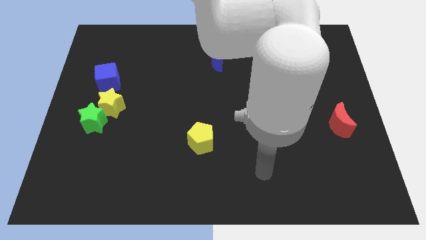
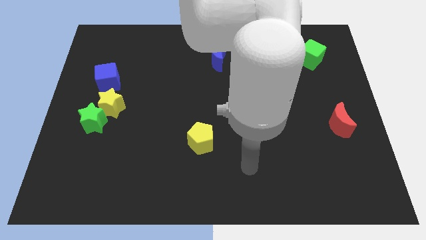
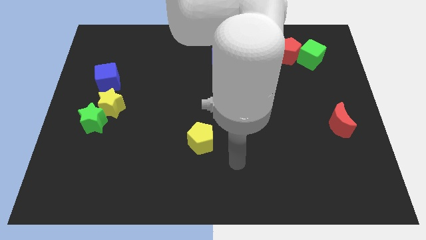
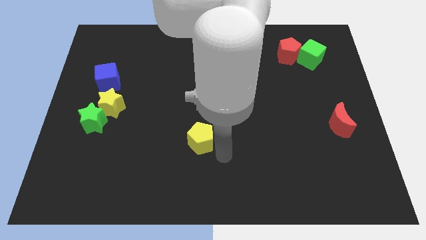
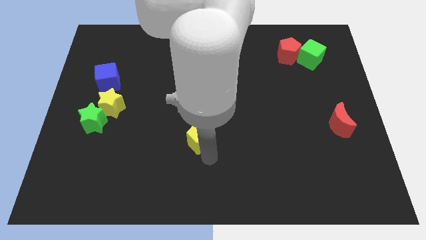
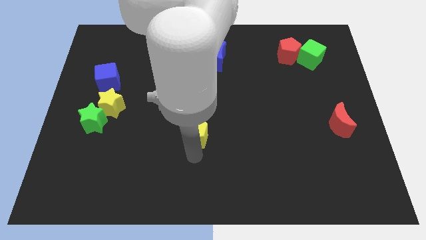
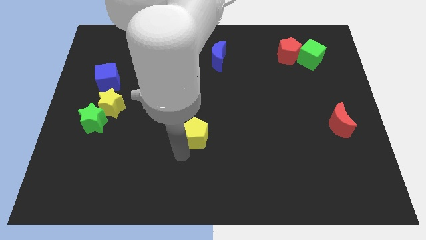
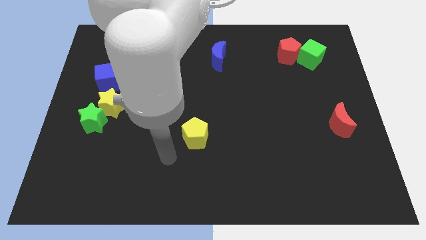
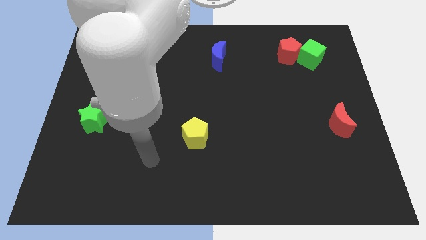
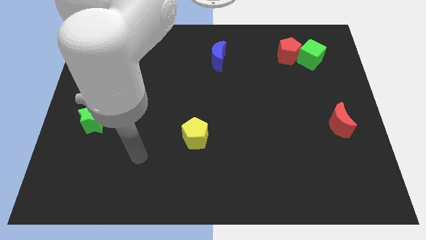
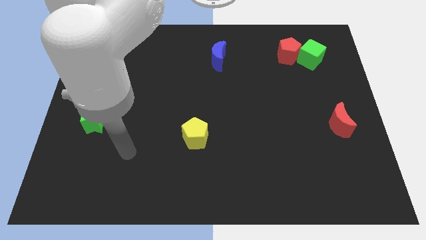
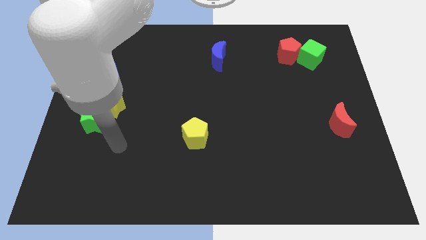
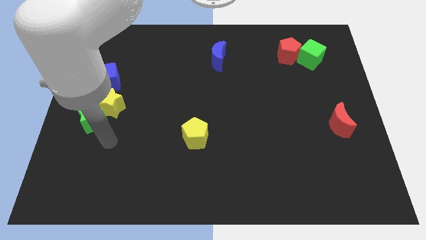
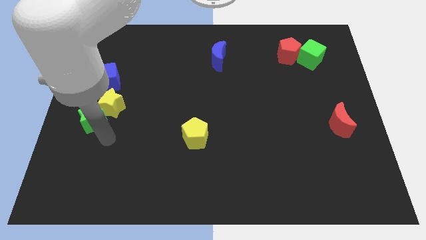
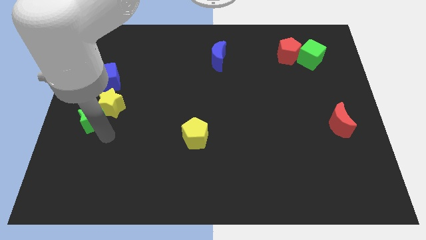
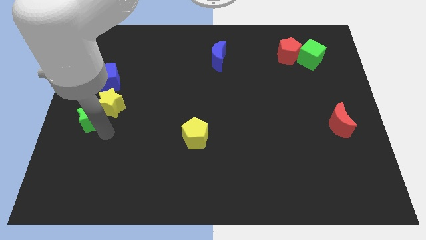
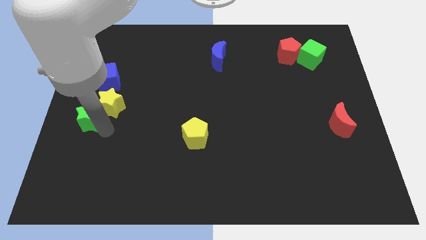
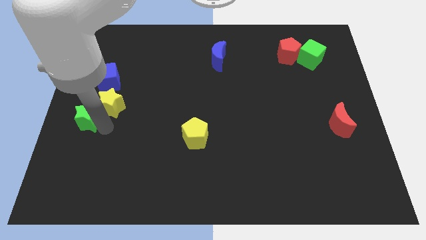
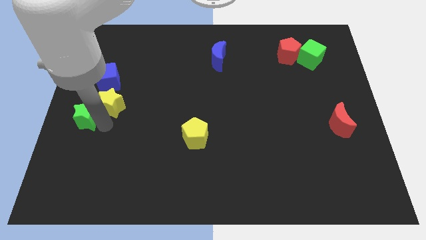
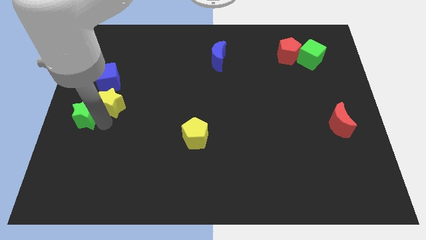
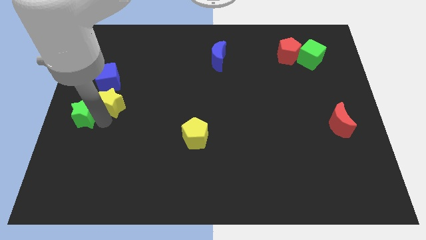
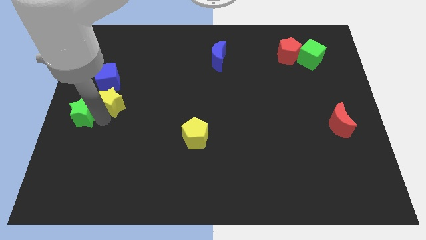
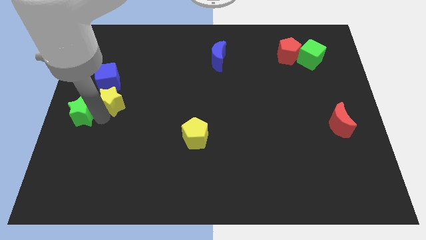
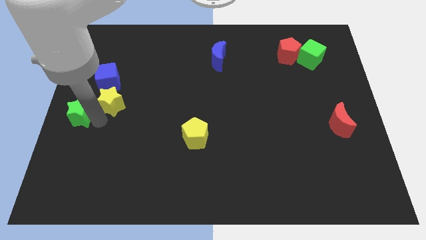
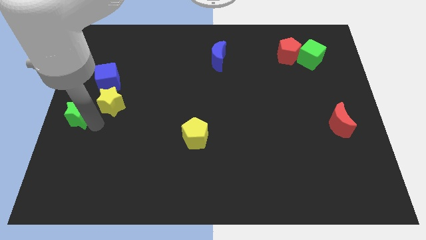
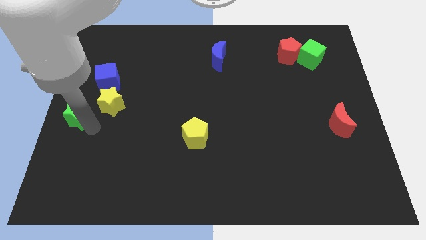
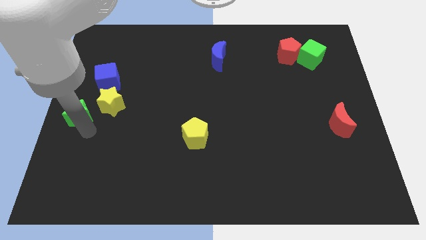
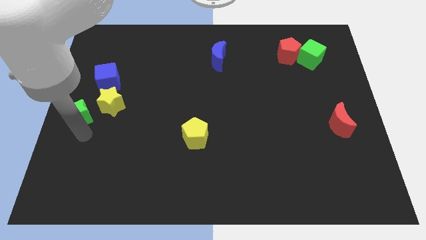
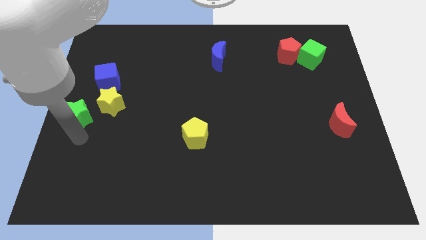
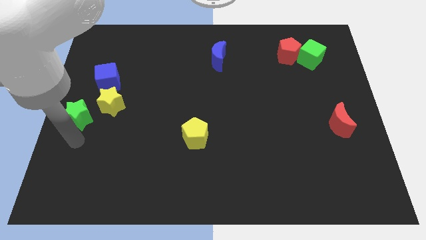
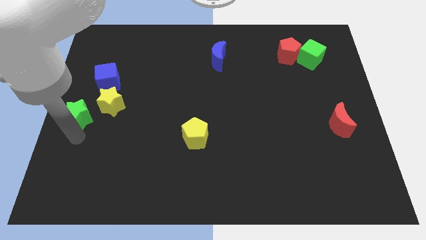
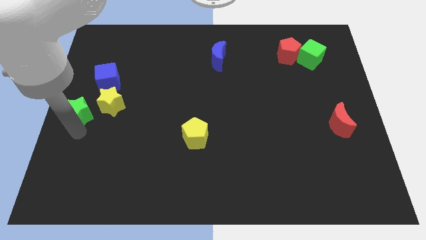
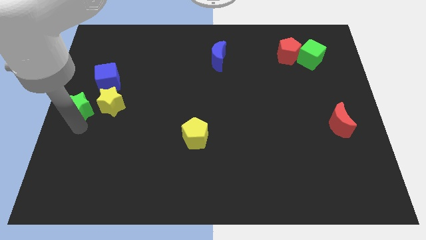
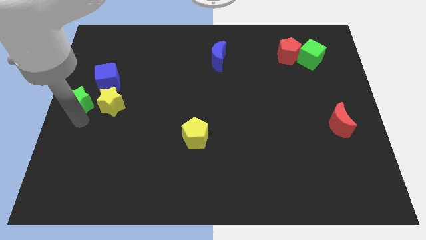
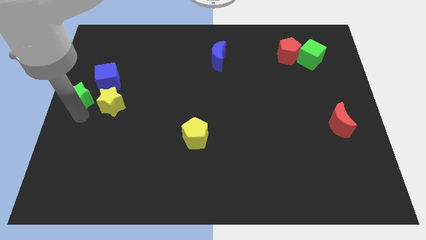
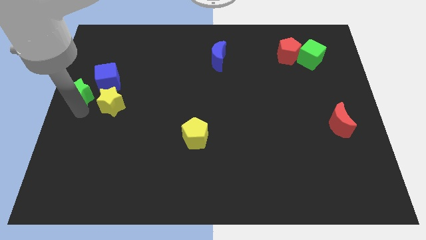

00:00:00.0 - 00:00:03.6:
slide the green star a little up

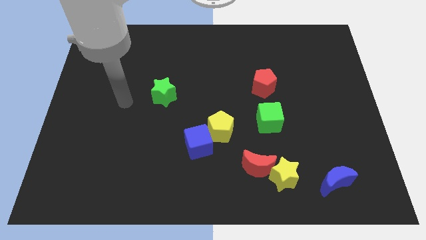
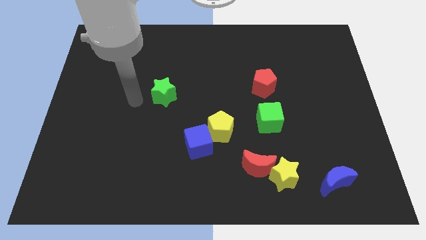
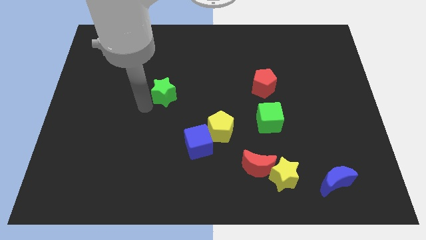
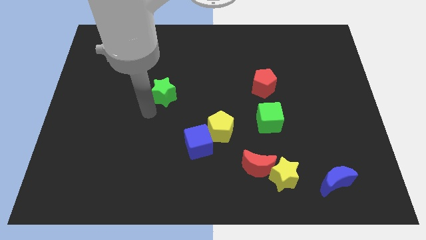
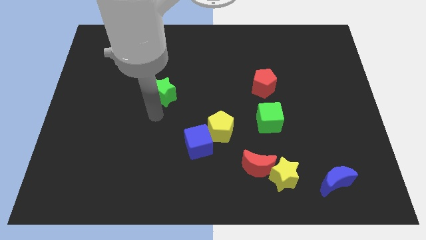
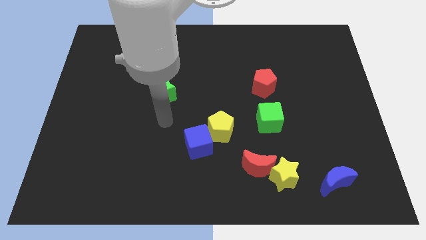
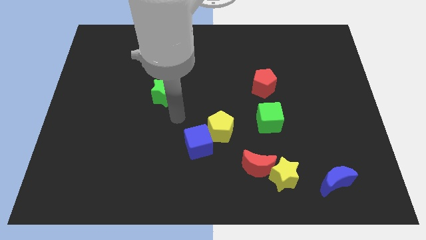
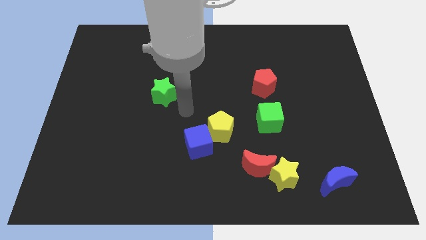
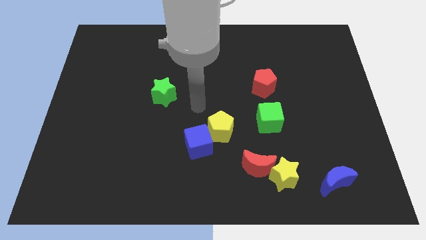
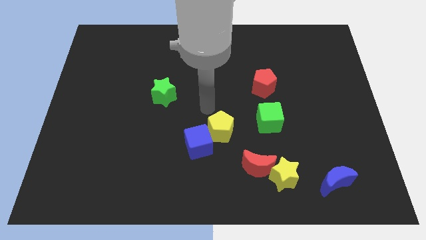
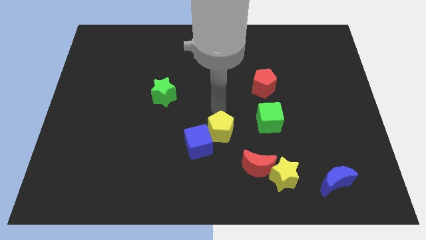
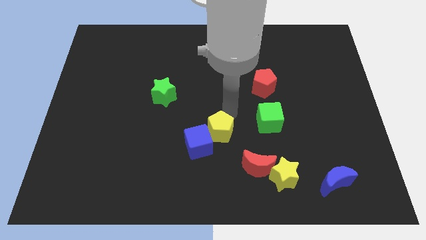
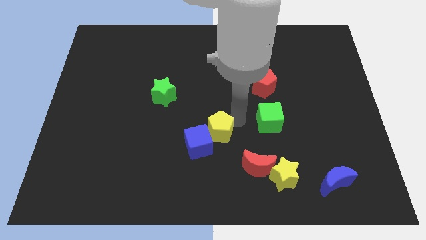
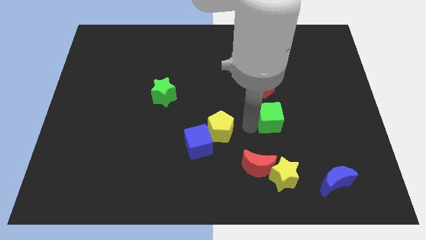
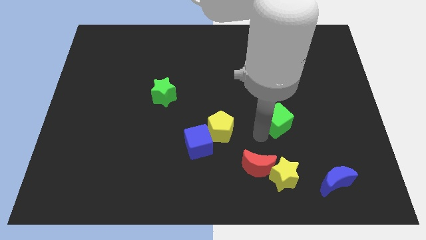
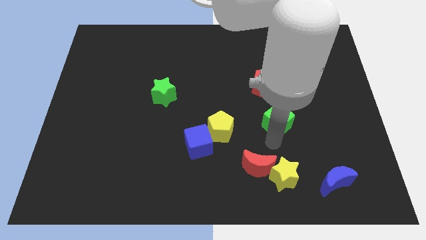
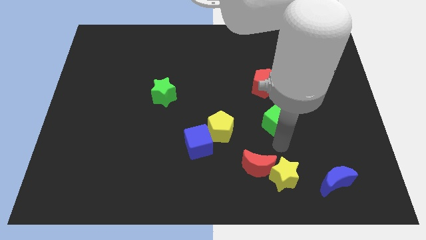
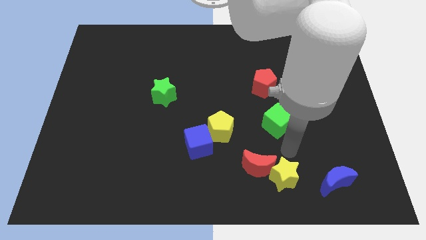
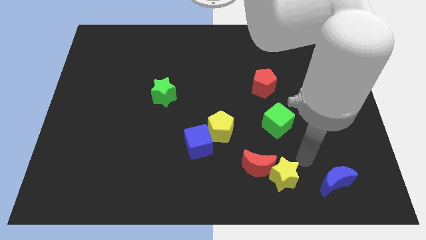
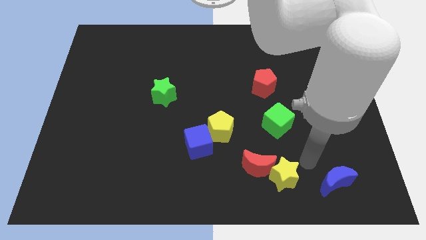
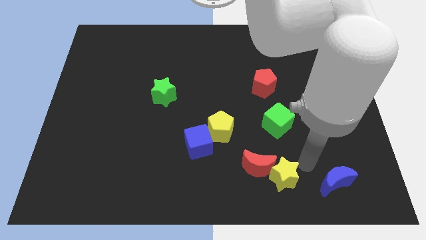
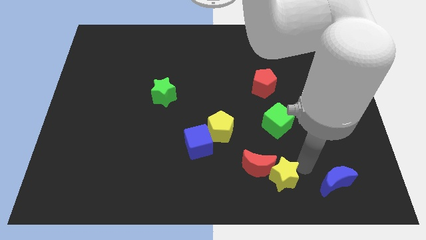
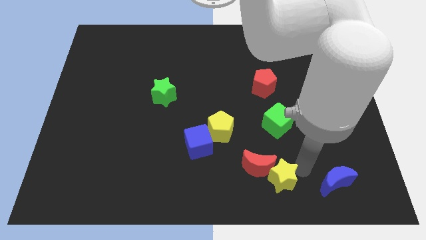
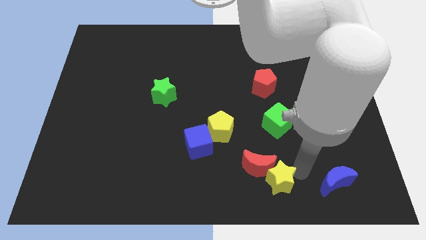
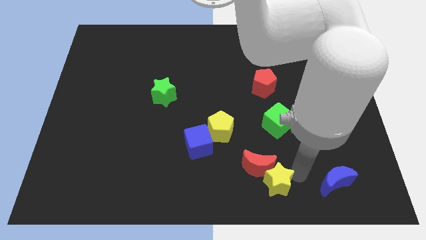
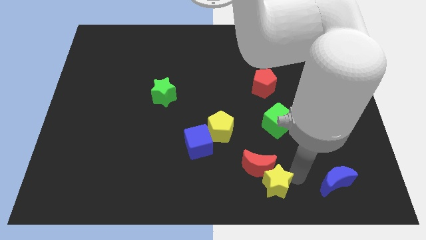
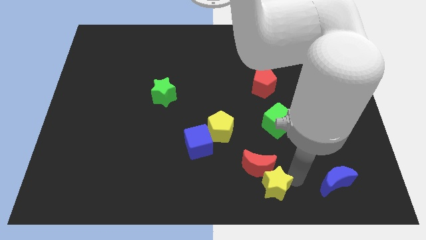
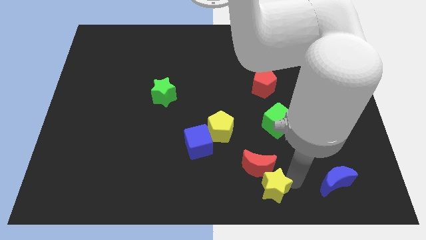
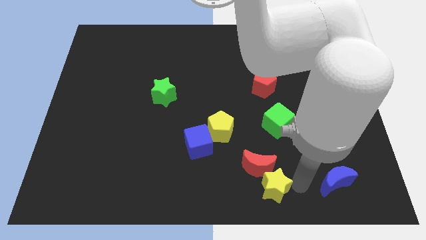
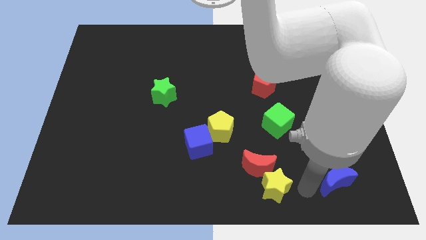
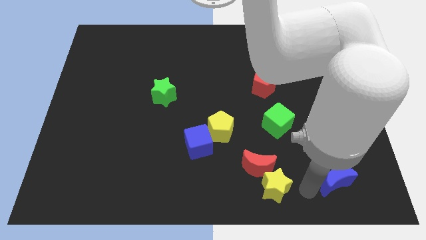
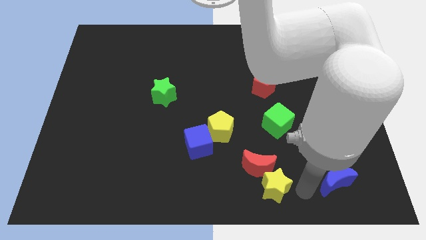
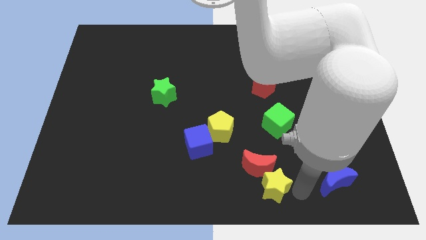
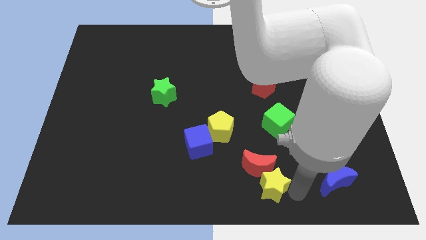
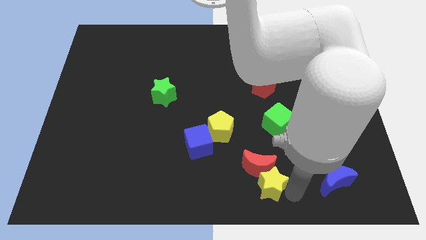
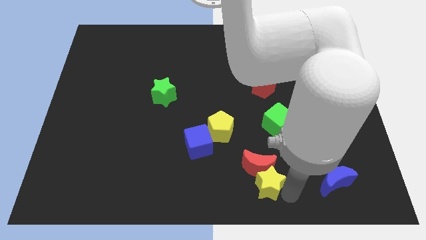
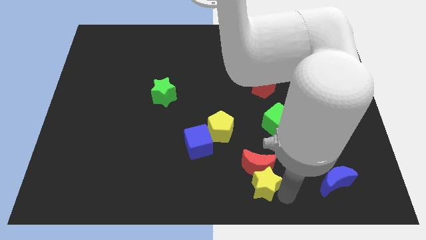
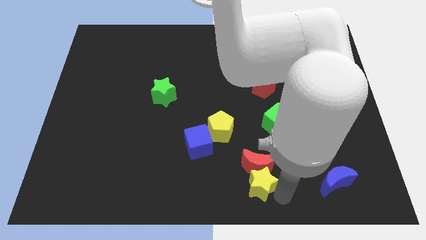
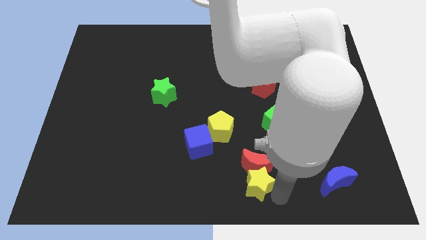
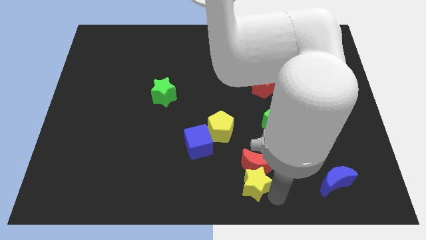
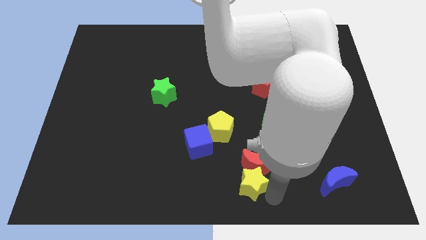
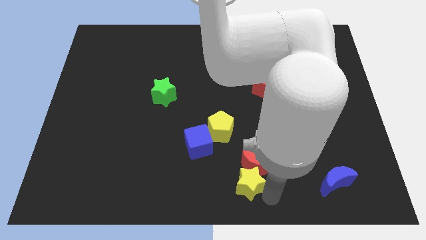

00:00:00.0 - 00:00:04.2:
slightly move the yellow star to the left
